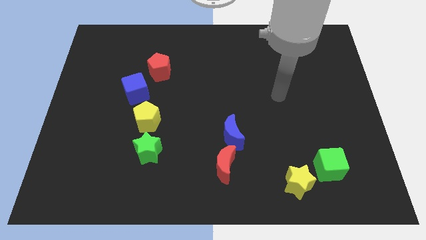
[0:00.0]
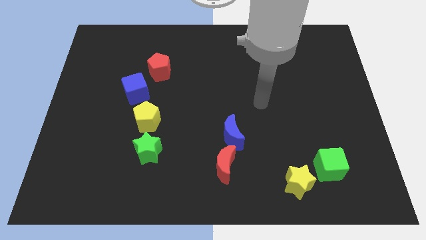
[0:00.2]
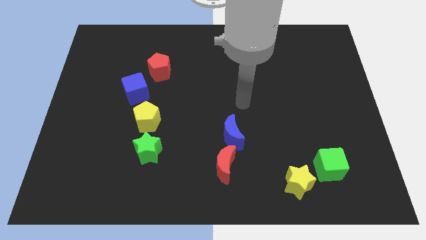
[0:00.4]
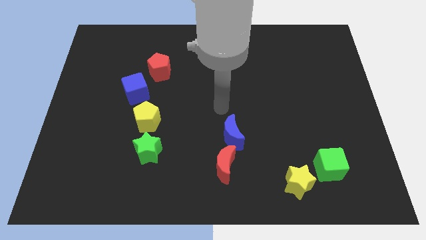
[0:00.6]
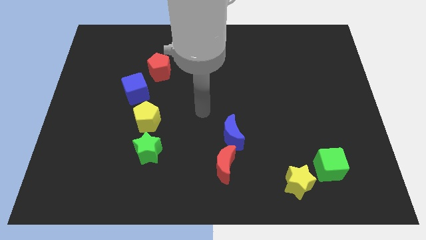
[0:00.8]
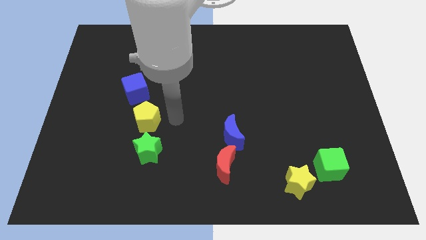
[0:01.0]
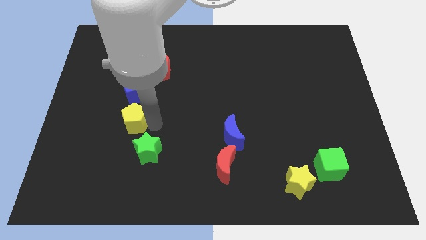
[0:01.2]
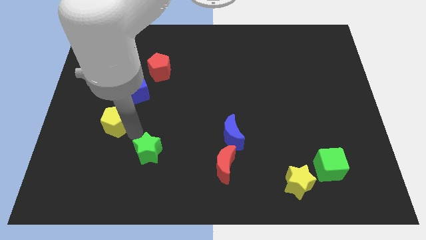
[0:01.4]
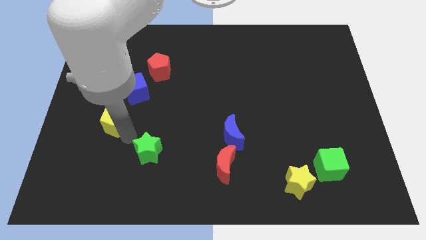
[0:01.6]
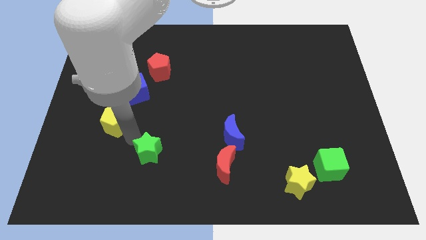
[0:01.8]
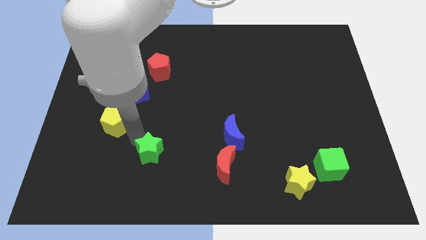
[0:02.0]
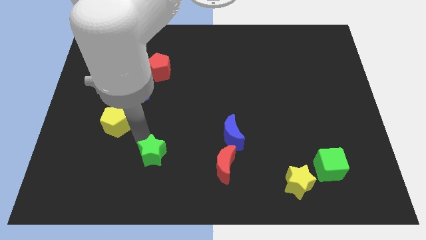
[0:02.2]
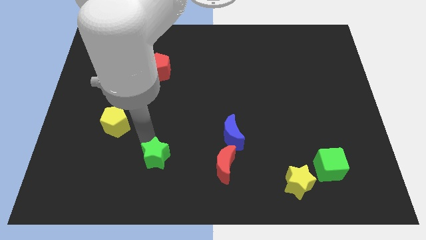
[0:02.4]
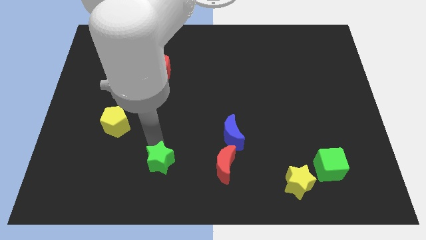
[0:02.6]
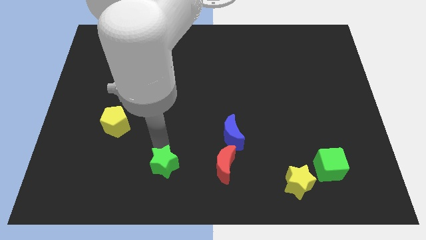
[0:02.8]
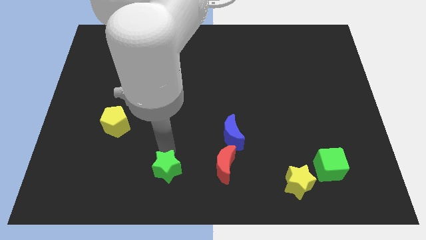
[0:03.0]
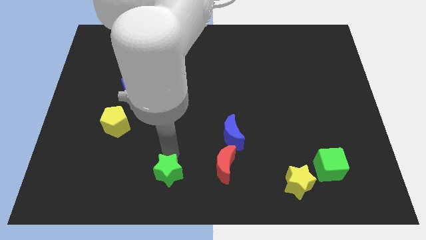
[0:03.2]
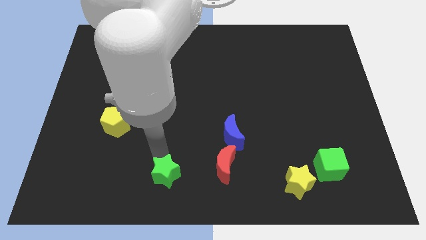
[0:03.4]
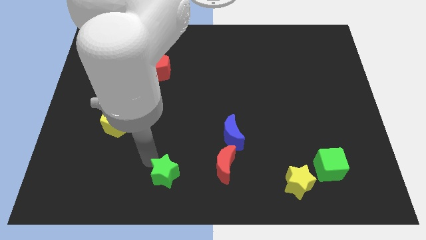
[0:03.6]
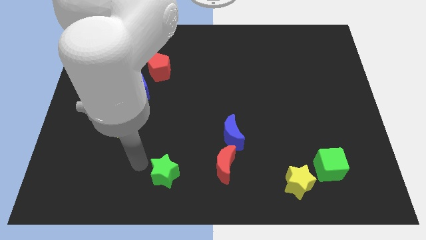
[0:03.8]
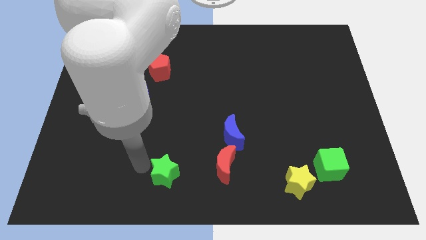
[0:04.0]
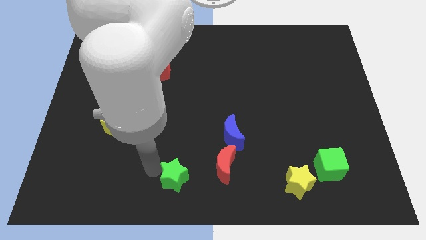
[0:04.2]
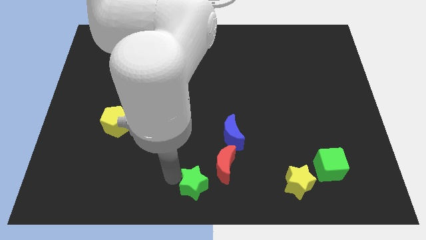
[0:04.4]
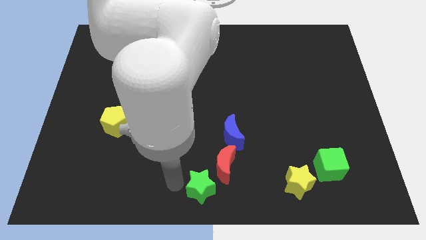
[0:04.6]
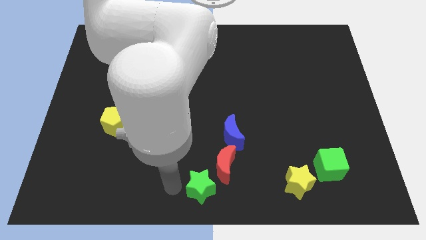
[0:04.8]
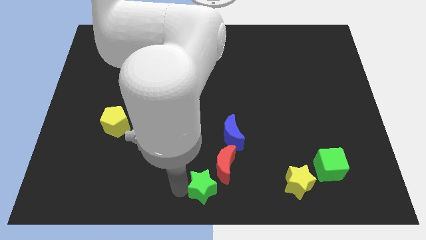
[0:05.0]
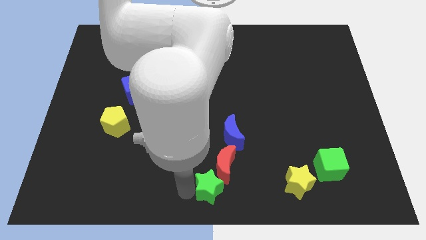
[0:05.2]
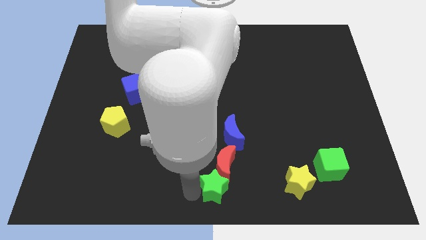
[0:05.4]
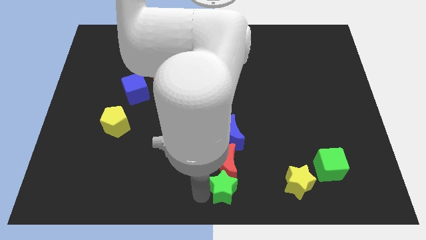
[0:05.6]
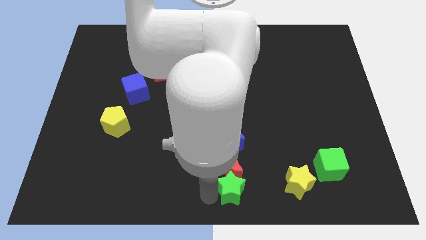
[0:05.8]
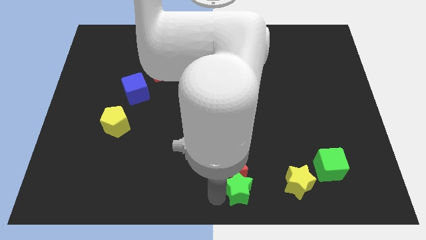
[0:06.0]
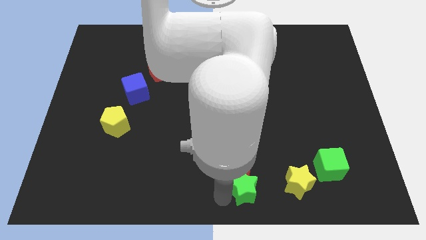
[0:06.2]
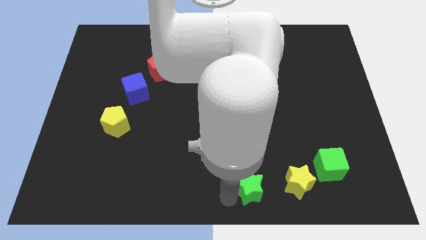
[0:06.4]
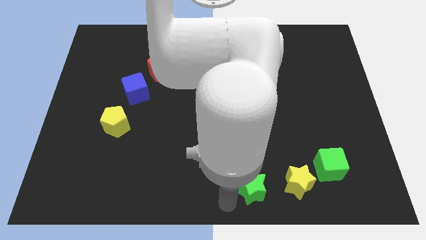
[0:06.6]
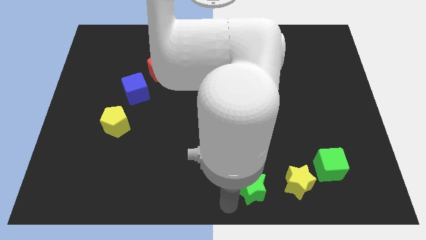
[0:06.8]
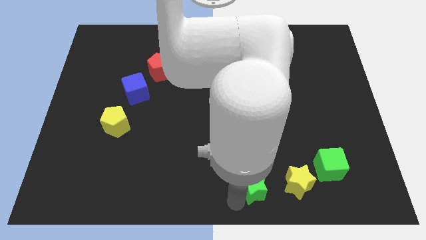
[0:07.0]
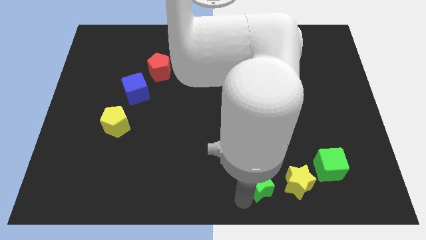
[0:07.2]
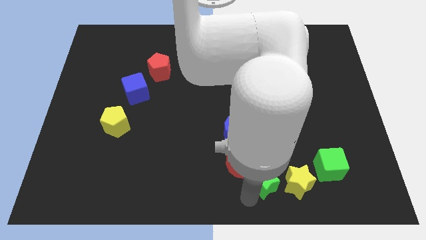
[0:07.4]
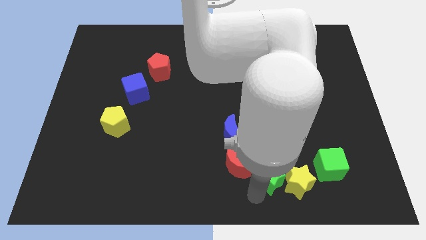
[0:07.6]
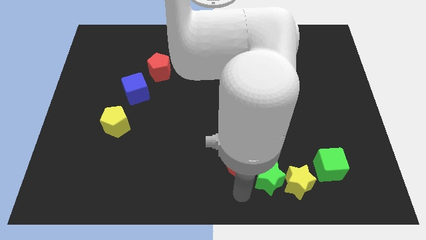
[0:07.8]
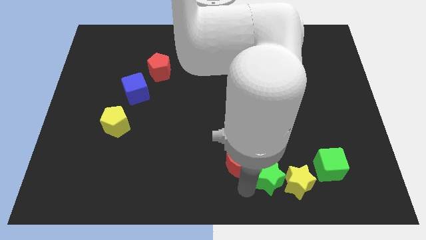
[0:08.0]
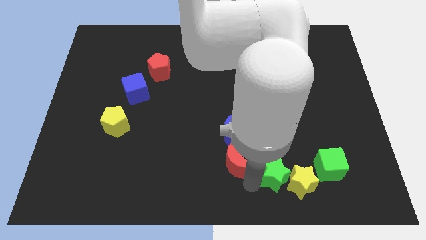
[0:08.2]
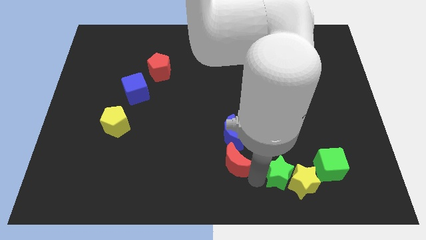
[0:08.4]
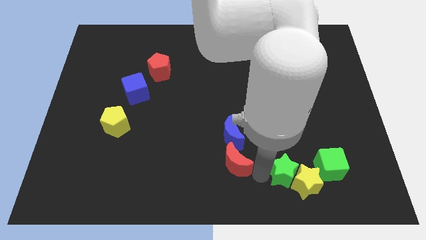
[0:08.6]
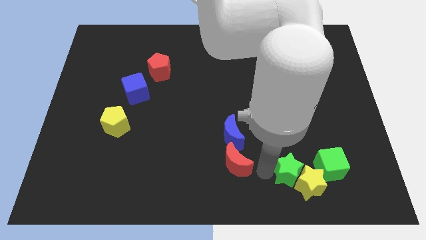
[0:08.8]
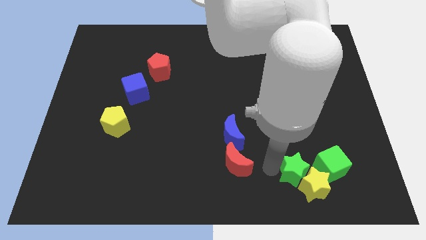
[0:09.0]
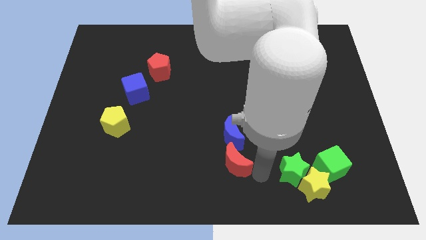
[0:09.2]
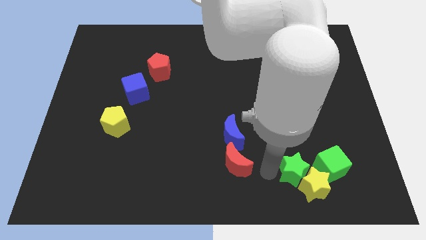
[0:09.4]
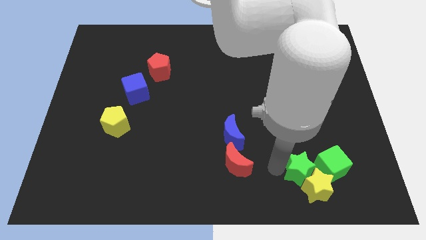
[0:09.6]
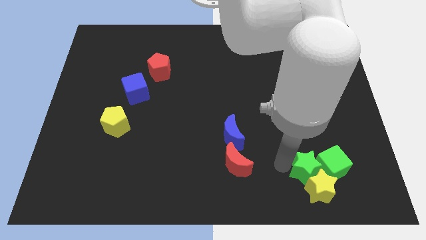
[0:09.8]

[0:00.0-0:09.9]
push the green star to the green cube

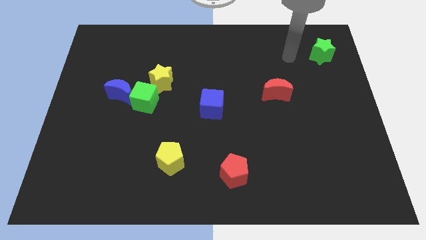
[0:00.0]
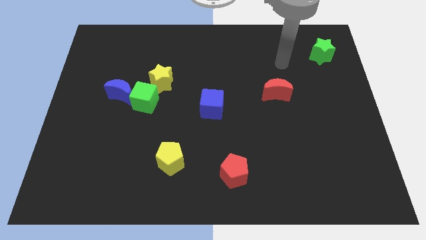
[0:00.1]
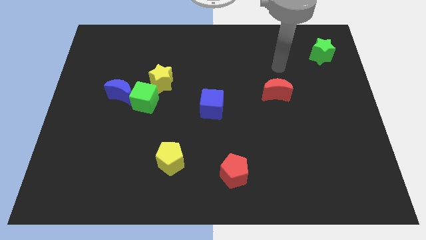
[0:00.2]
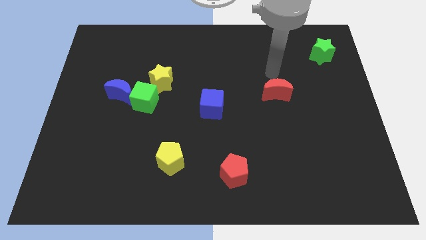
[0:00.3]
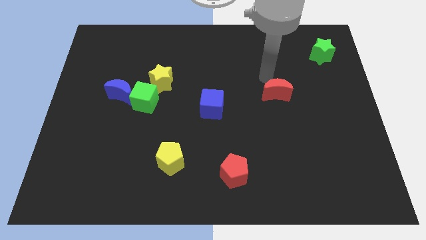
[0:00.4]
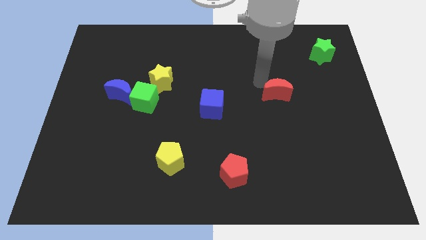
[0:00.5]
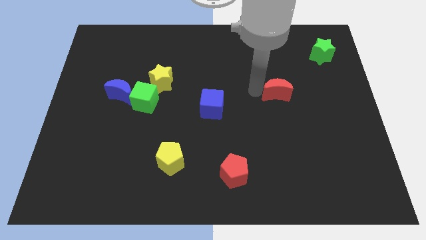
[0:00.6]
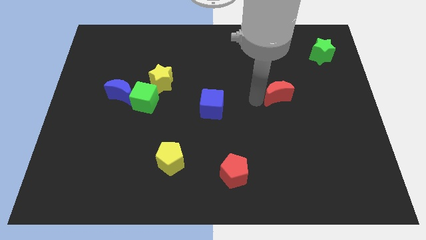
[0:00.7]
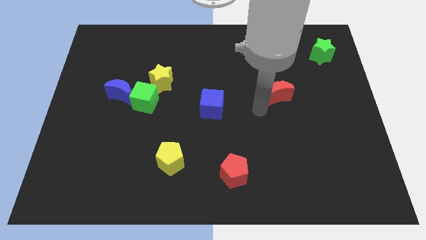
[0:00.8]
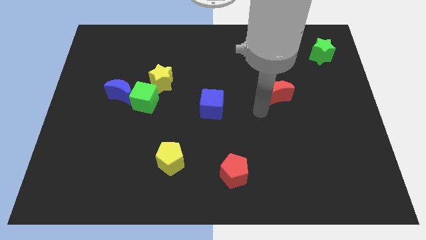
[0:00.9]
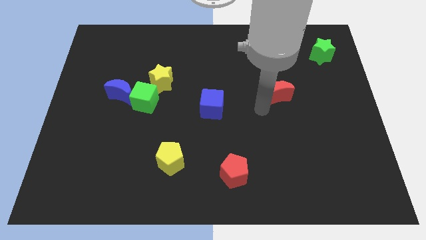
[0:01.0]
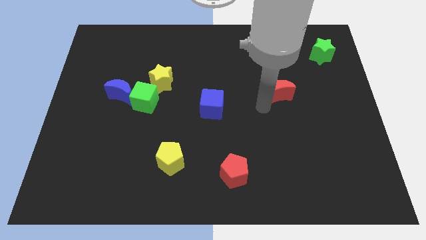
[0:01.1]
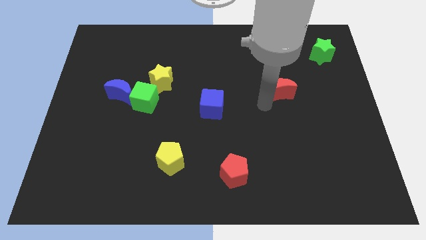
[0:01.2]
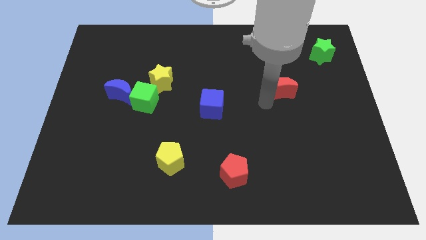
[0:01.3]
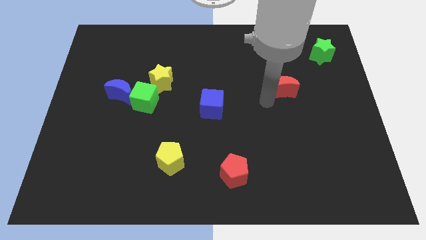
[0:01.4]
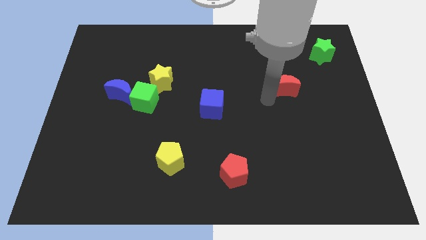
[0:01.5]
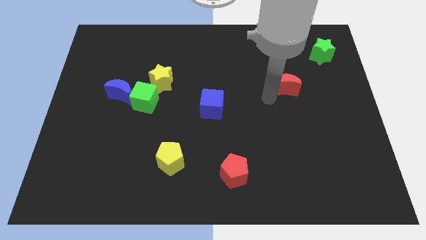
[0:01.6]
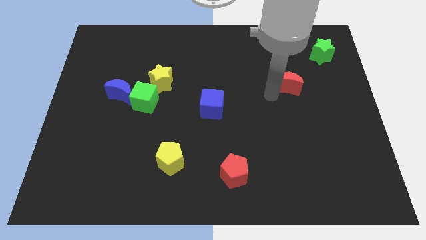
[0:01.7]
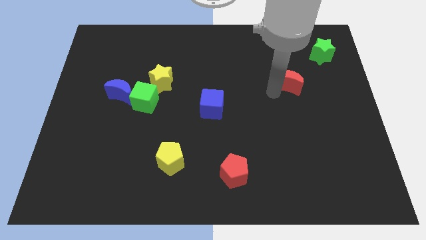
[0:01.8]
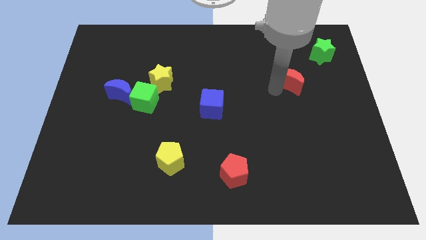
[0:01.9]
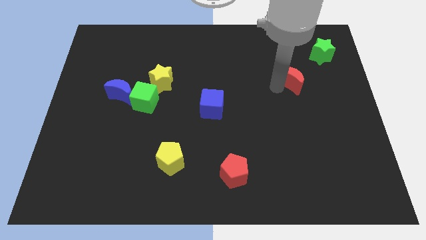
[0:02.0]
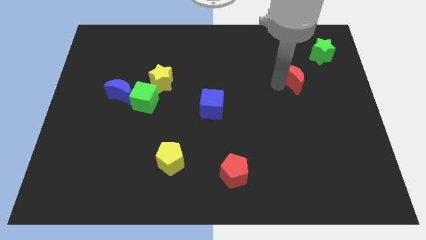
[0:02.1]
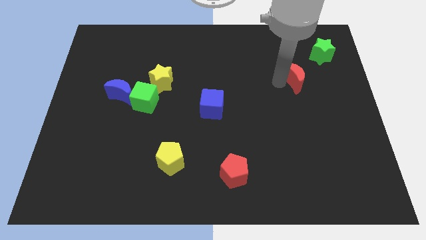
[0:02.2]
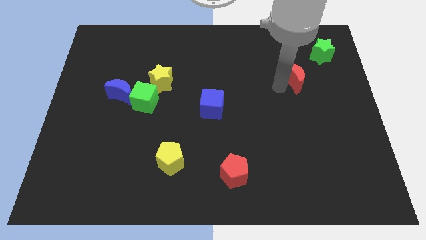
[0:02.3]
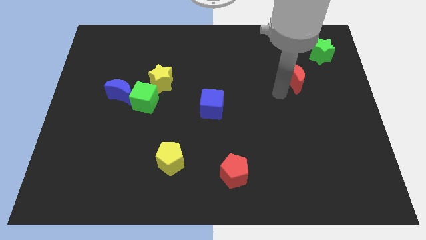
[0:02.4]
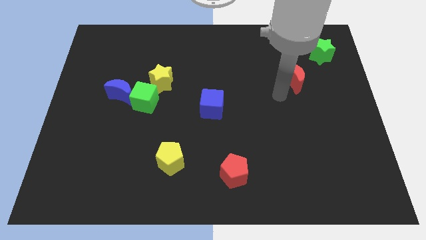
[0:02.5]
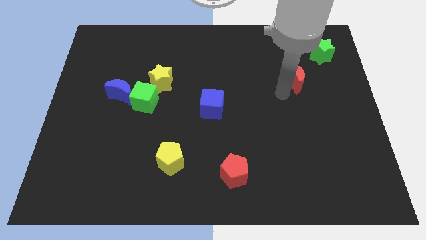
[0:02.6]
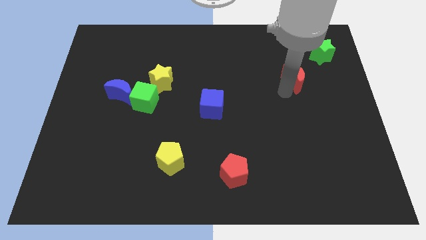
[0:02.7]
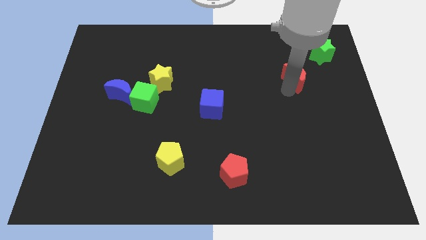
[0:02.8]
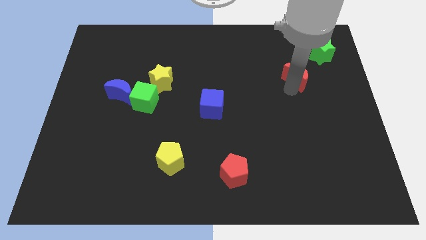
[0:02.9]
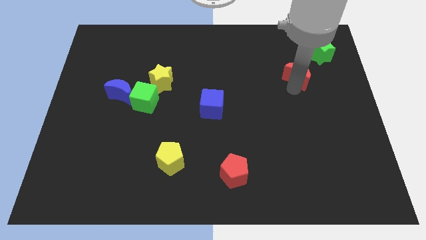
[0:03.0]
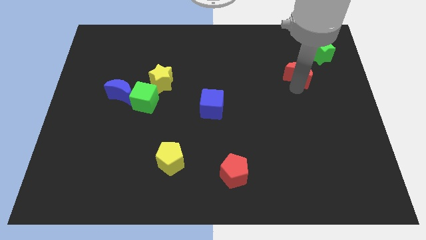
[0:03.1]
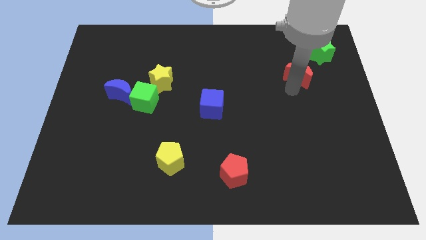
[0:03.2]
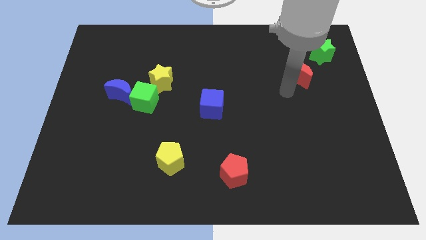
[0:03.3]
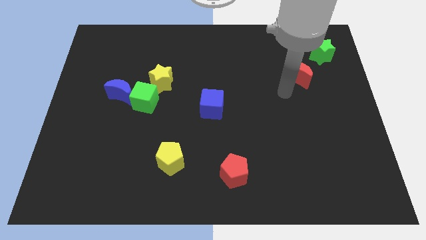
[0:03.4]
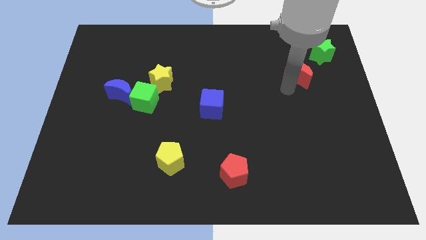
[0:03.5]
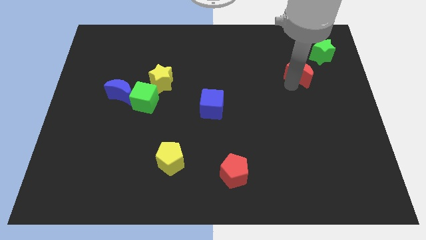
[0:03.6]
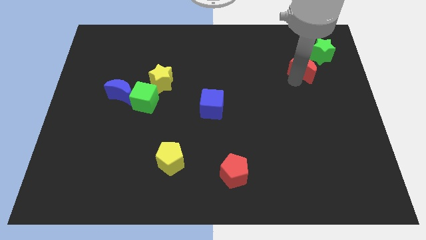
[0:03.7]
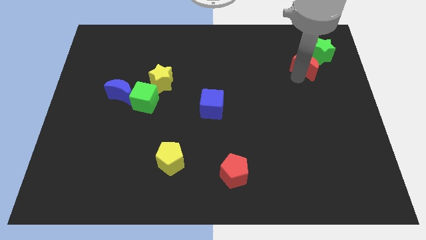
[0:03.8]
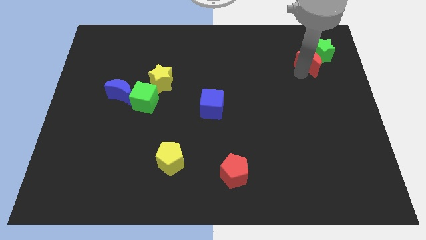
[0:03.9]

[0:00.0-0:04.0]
slide the red moon close to the green star
